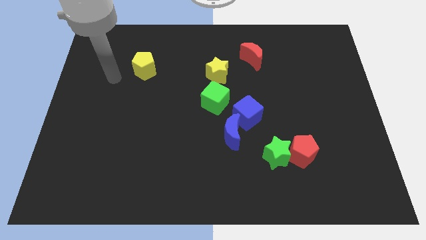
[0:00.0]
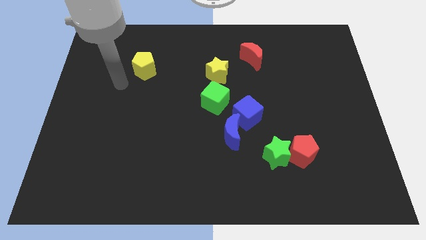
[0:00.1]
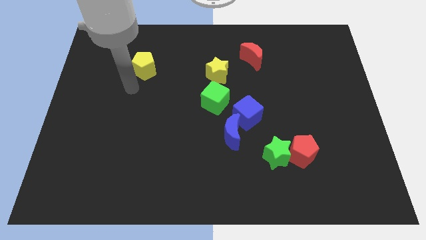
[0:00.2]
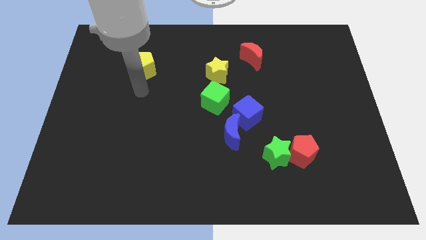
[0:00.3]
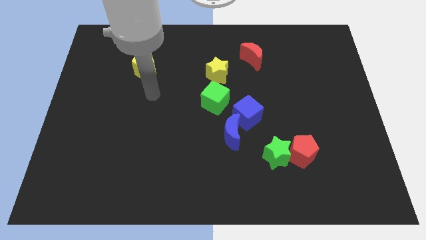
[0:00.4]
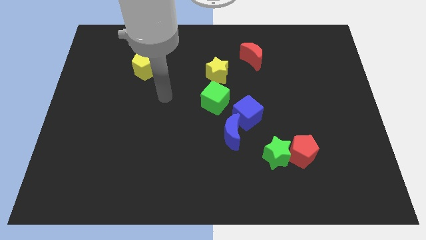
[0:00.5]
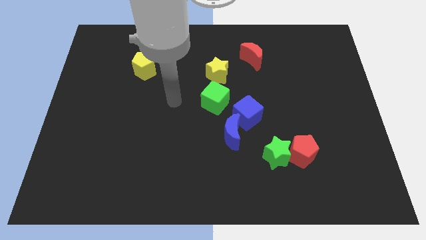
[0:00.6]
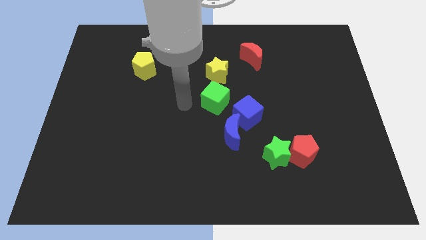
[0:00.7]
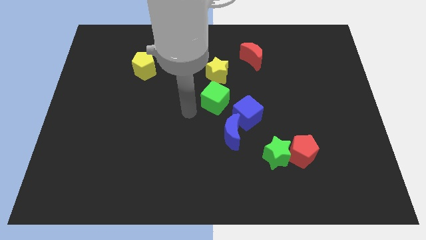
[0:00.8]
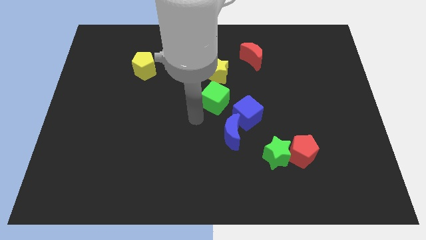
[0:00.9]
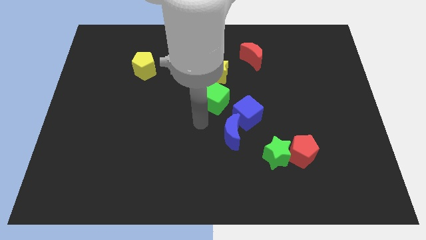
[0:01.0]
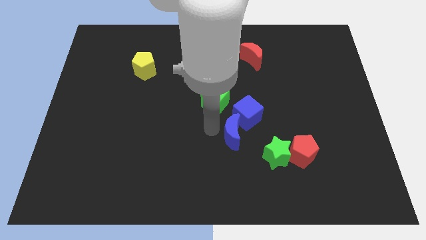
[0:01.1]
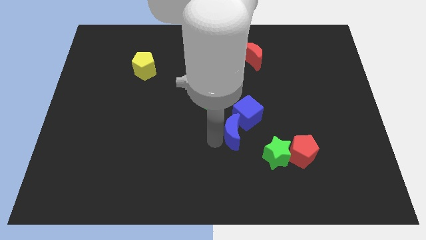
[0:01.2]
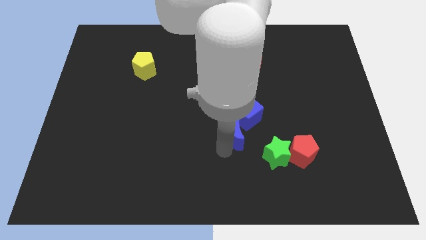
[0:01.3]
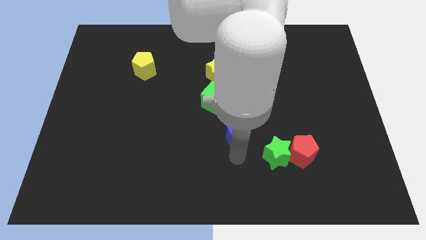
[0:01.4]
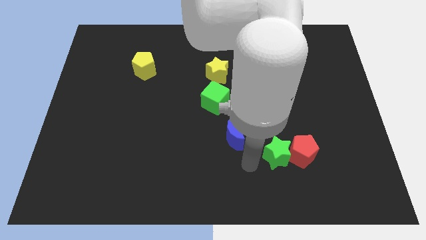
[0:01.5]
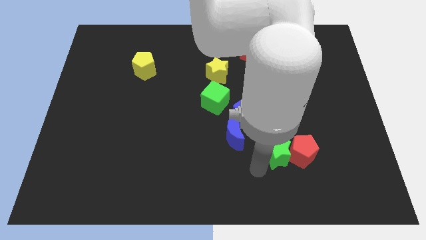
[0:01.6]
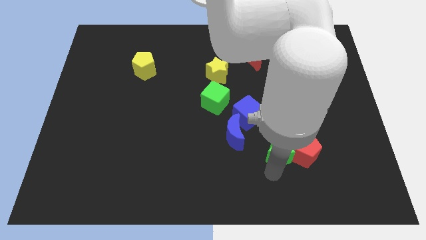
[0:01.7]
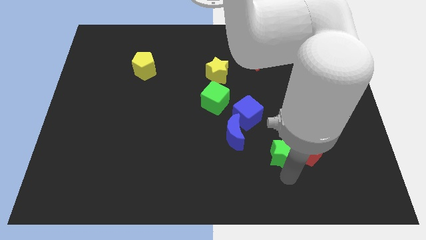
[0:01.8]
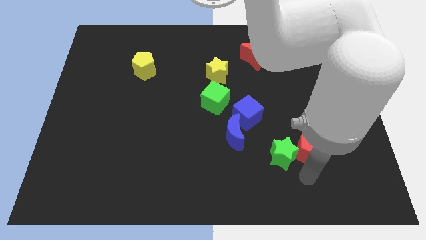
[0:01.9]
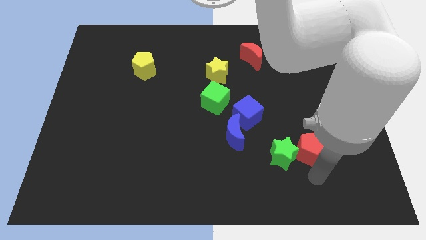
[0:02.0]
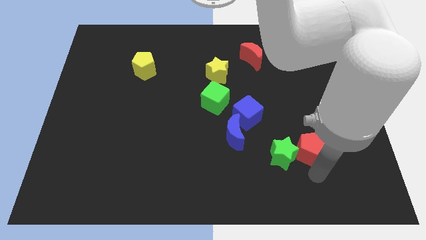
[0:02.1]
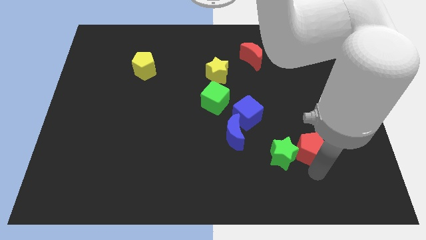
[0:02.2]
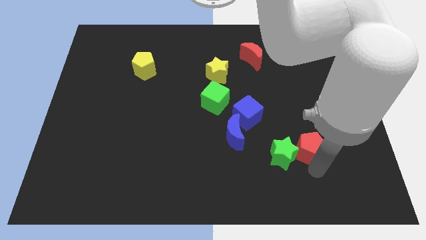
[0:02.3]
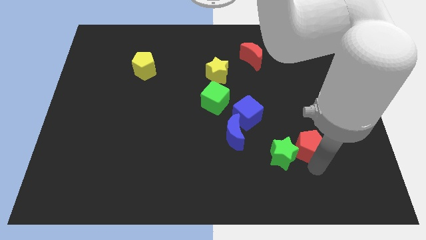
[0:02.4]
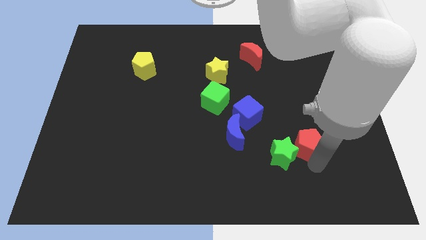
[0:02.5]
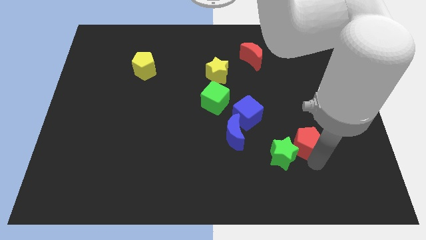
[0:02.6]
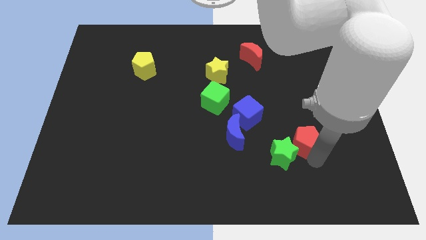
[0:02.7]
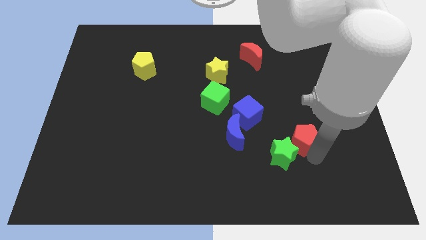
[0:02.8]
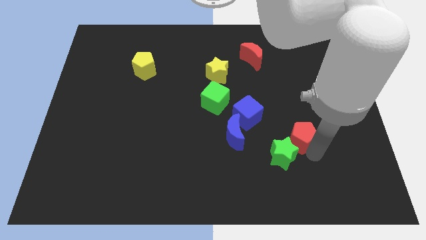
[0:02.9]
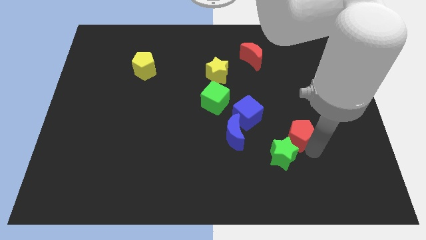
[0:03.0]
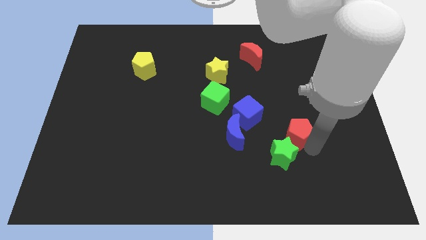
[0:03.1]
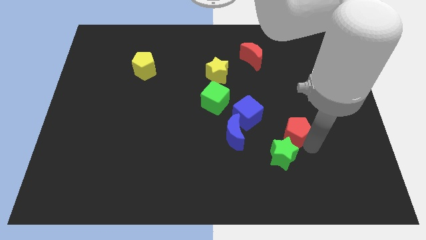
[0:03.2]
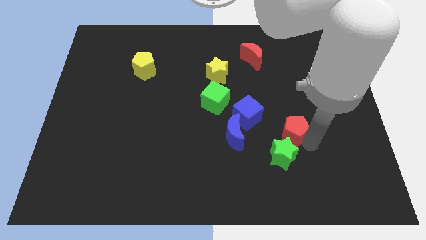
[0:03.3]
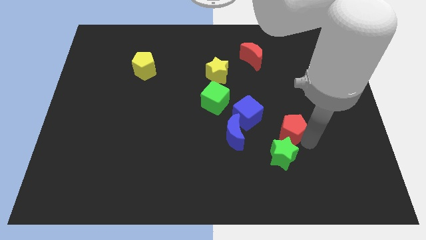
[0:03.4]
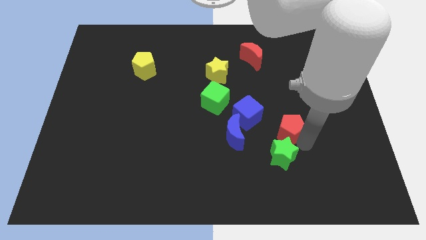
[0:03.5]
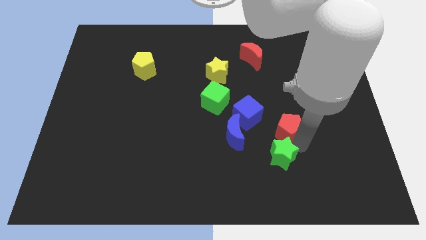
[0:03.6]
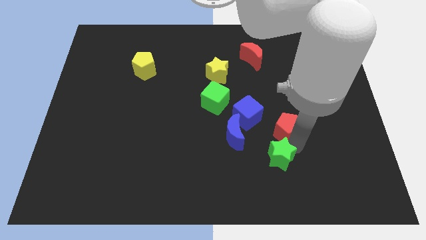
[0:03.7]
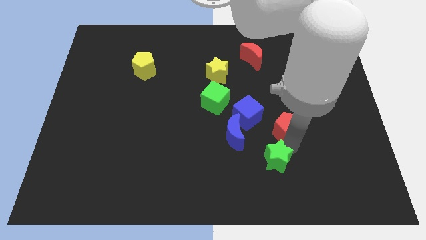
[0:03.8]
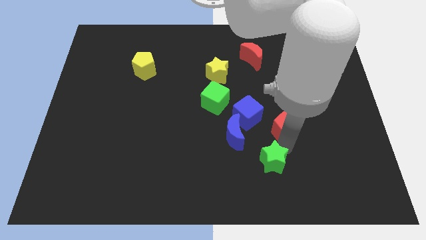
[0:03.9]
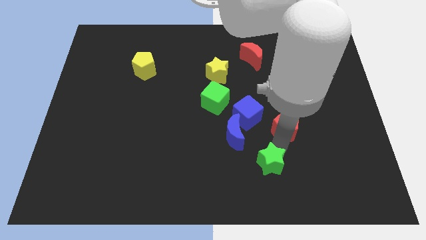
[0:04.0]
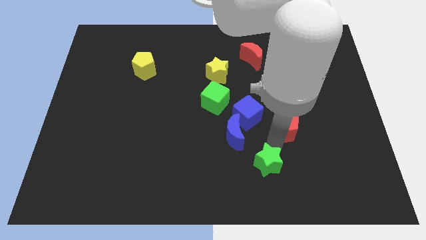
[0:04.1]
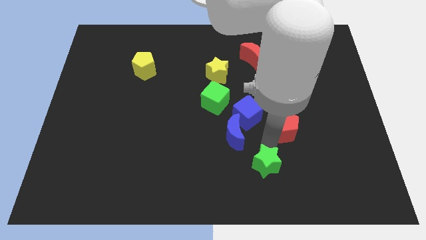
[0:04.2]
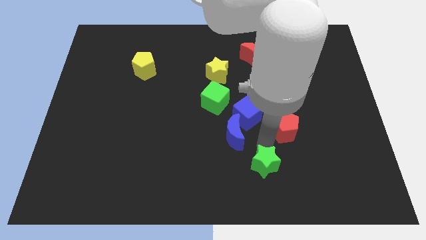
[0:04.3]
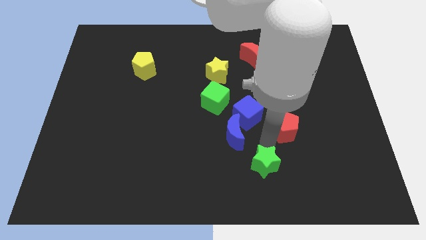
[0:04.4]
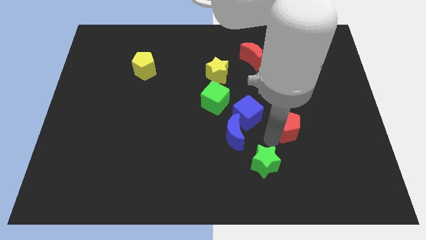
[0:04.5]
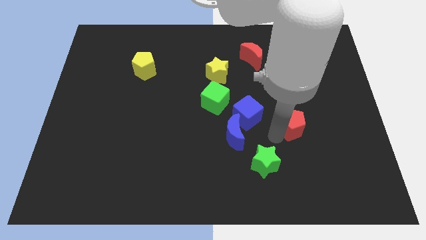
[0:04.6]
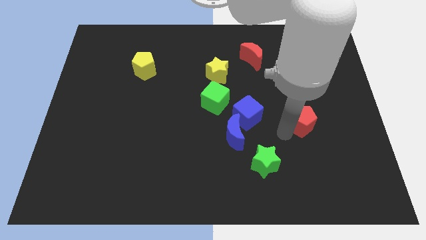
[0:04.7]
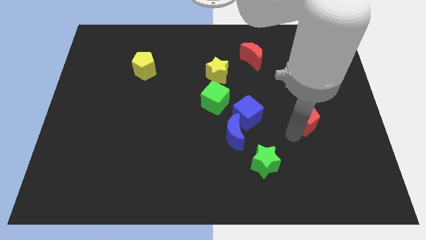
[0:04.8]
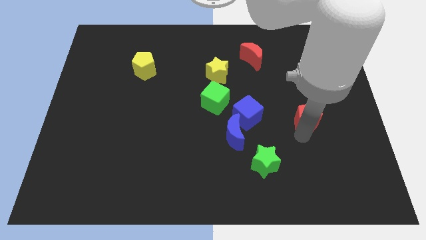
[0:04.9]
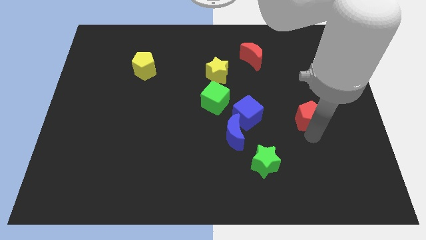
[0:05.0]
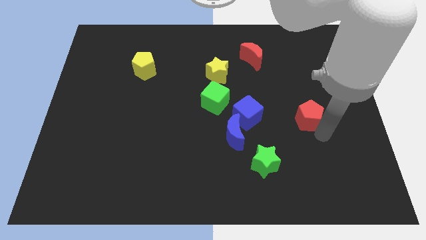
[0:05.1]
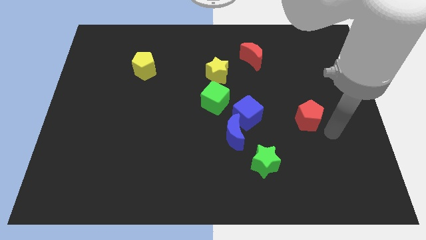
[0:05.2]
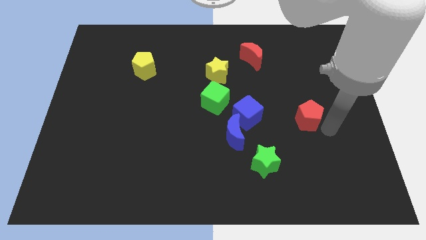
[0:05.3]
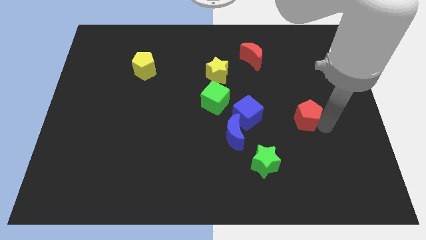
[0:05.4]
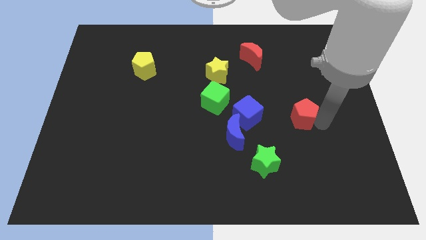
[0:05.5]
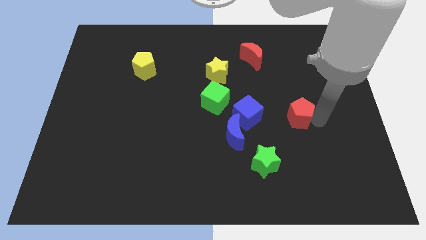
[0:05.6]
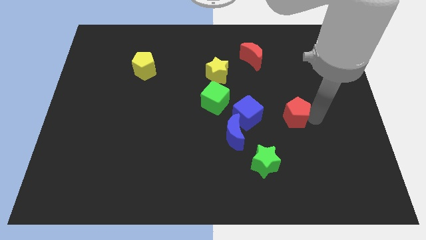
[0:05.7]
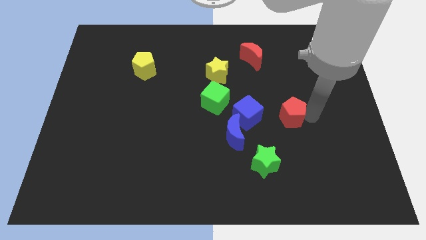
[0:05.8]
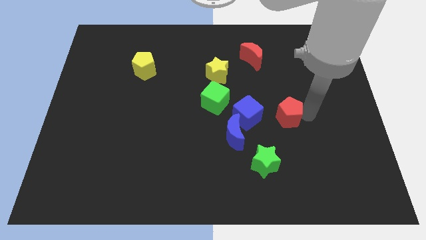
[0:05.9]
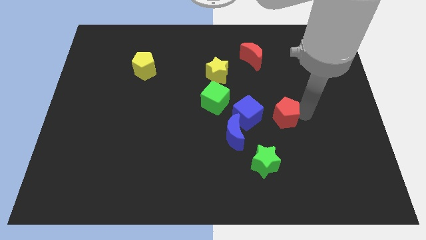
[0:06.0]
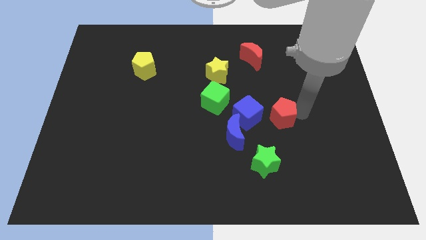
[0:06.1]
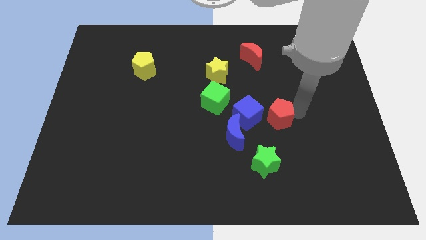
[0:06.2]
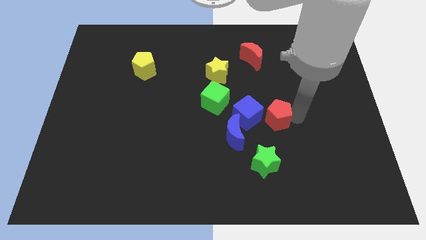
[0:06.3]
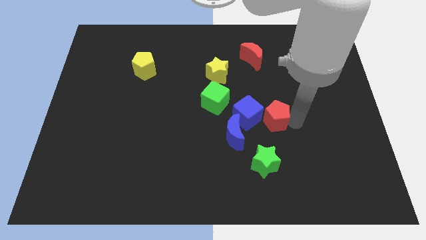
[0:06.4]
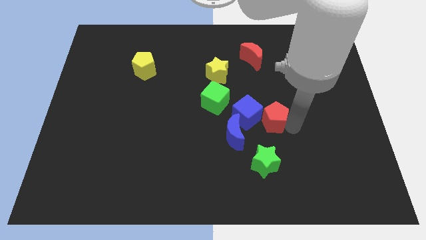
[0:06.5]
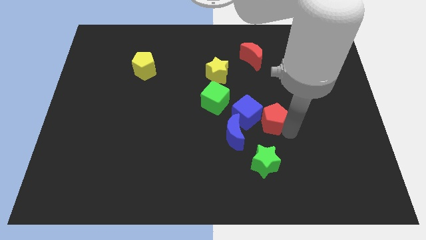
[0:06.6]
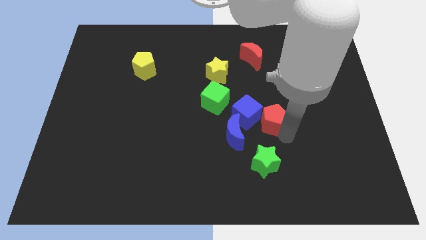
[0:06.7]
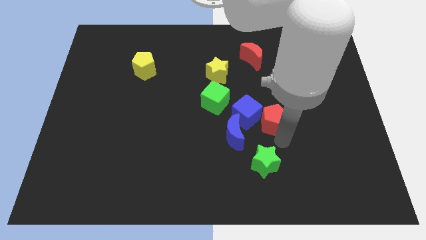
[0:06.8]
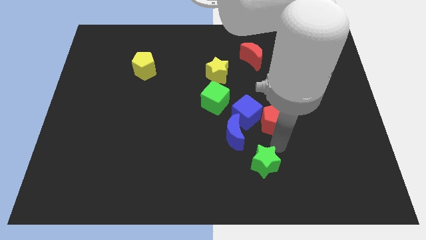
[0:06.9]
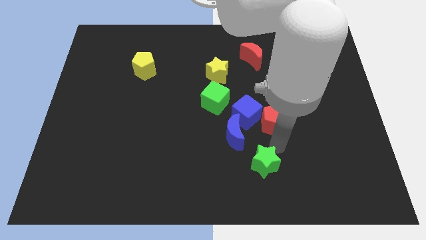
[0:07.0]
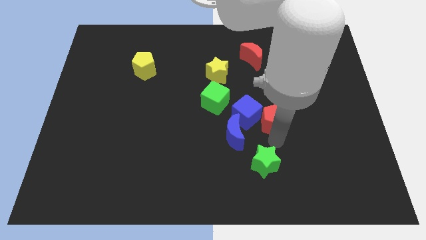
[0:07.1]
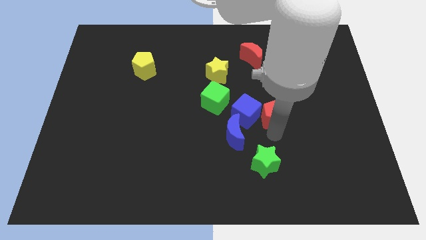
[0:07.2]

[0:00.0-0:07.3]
put the red pentagon to the top right of the blue cube
